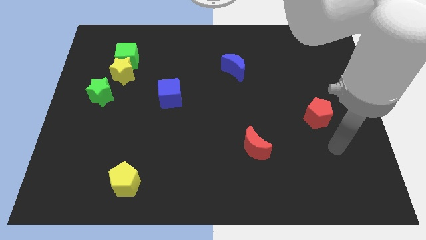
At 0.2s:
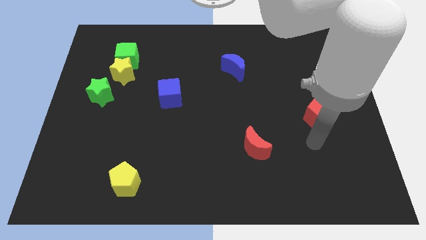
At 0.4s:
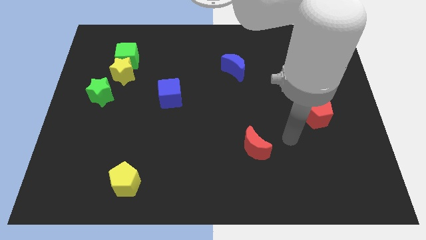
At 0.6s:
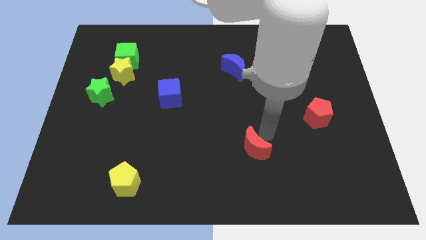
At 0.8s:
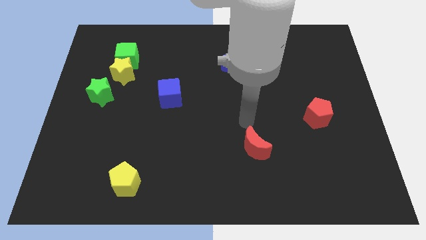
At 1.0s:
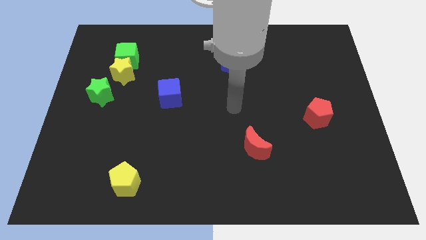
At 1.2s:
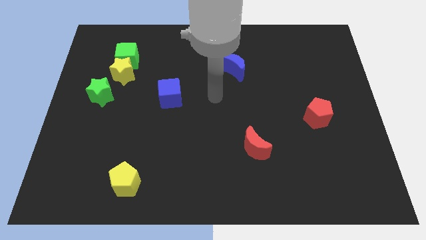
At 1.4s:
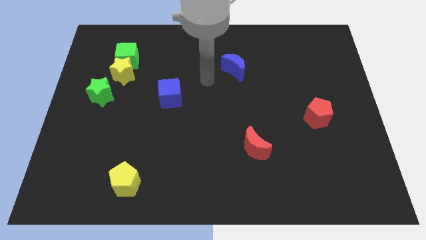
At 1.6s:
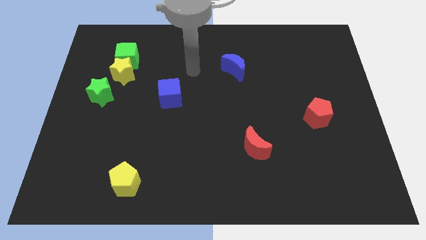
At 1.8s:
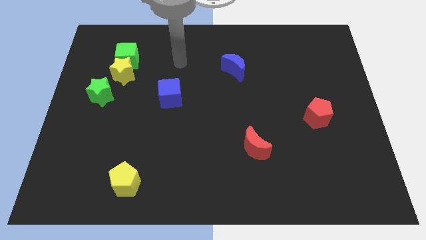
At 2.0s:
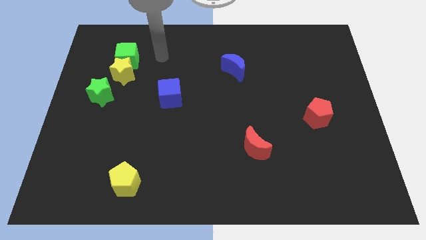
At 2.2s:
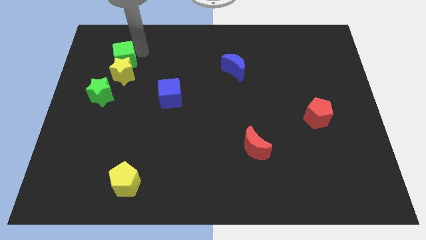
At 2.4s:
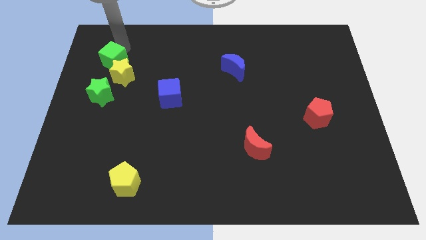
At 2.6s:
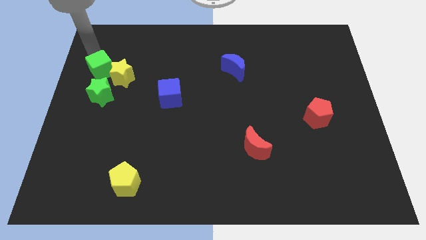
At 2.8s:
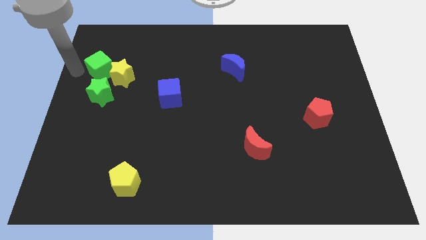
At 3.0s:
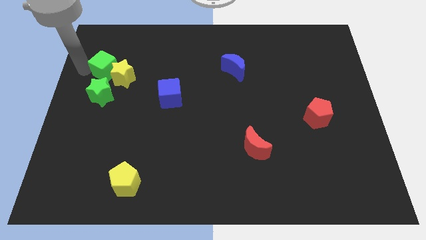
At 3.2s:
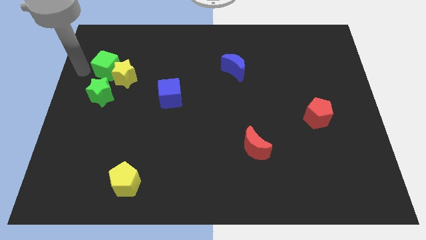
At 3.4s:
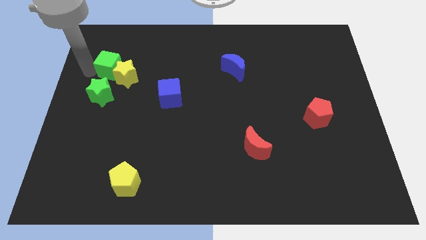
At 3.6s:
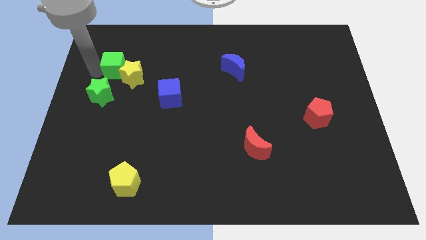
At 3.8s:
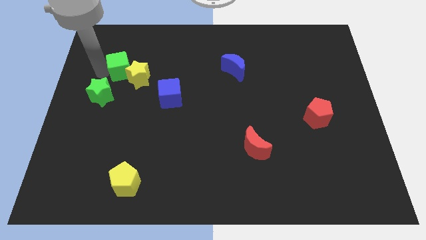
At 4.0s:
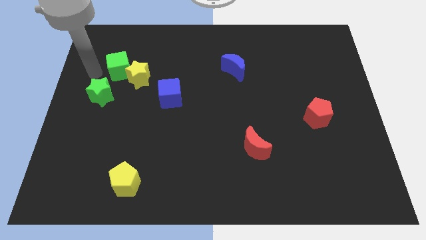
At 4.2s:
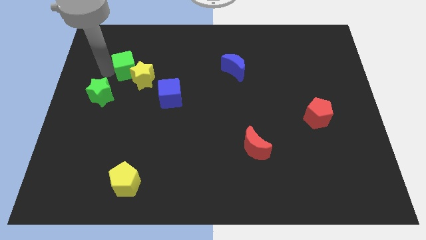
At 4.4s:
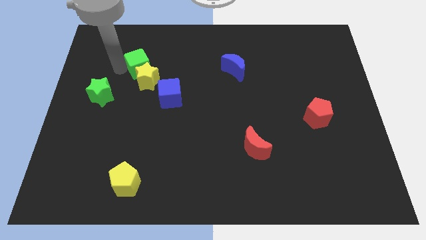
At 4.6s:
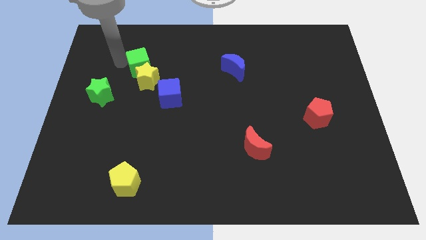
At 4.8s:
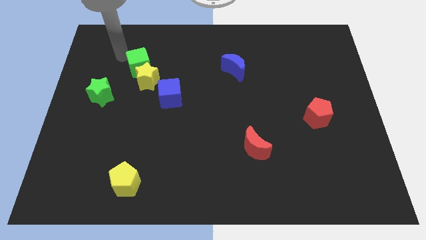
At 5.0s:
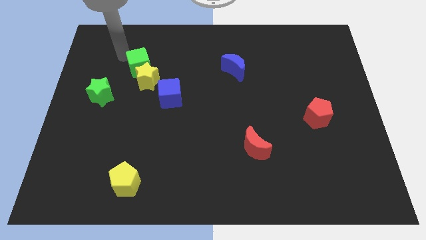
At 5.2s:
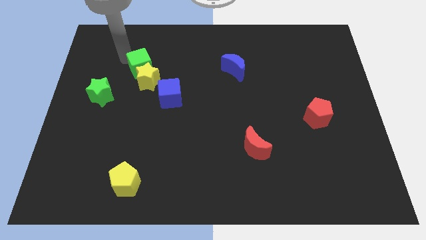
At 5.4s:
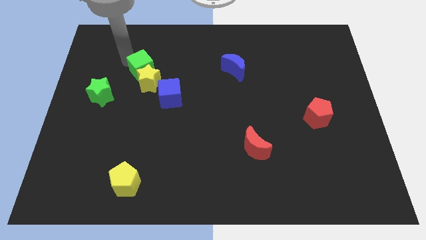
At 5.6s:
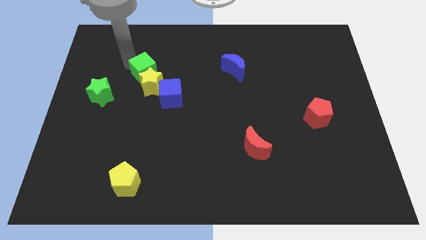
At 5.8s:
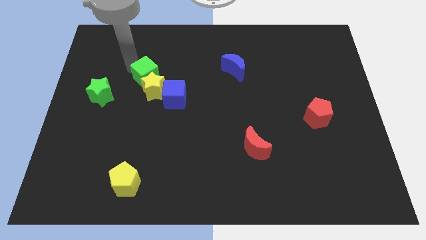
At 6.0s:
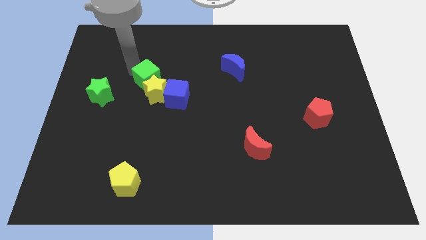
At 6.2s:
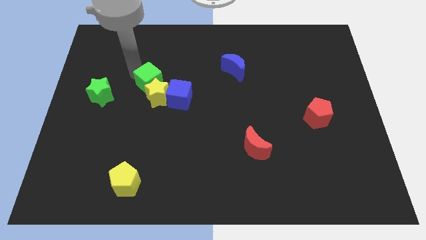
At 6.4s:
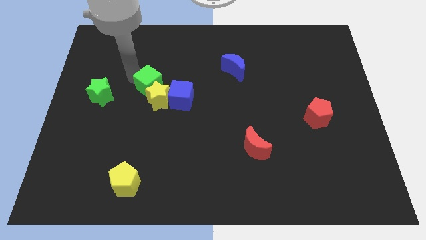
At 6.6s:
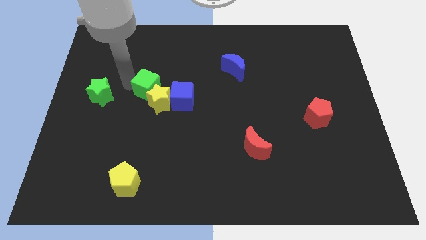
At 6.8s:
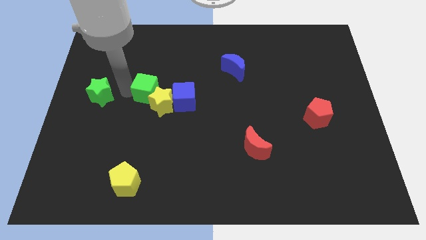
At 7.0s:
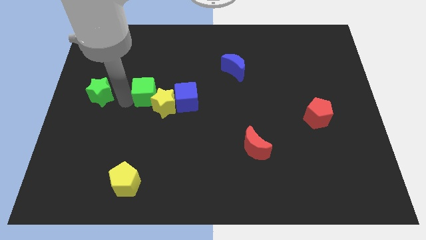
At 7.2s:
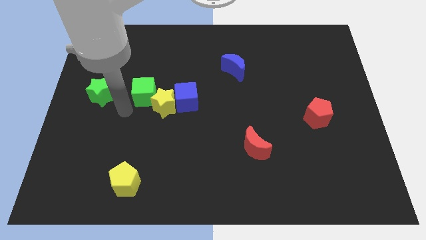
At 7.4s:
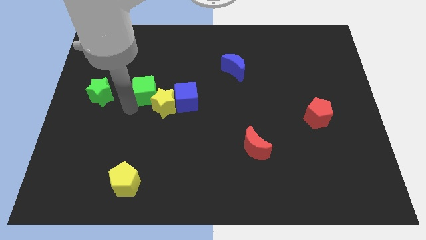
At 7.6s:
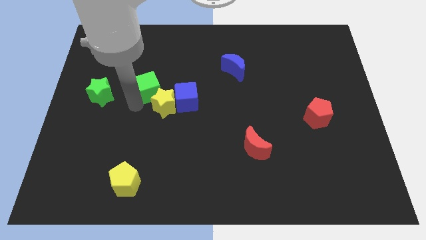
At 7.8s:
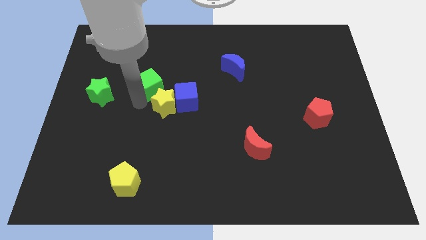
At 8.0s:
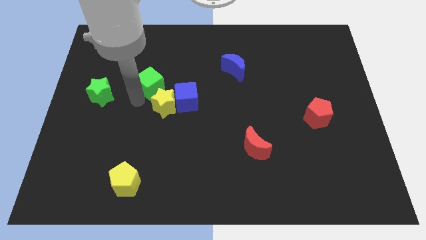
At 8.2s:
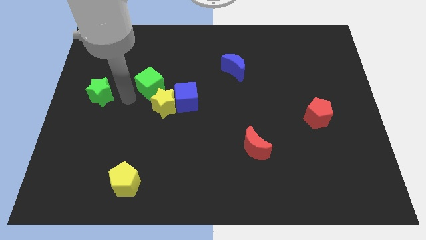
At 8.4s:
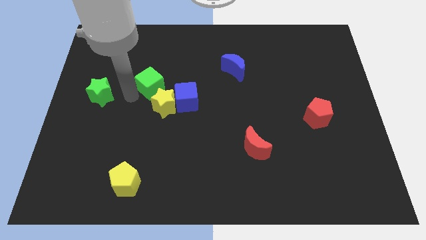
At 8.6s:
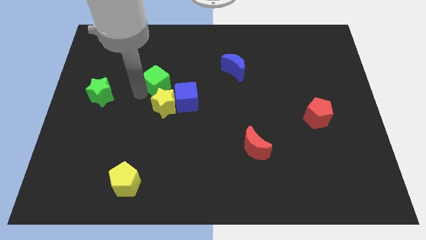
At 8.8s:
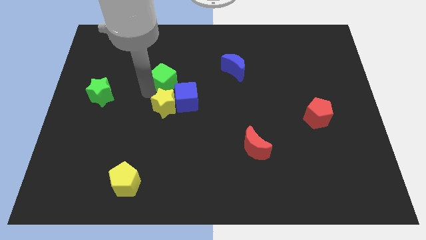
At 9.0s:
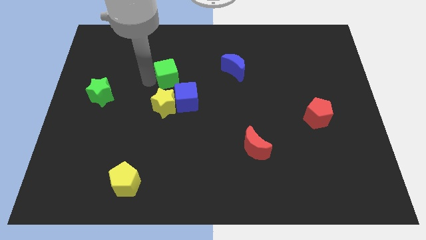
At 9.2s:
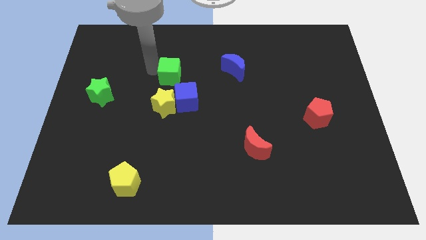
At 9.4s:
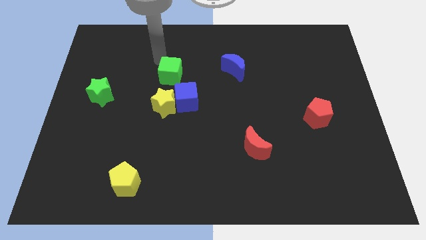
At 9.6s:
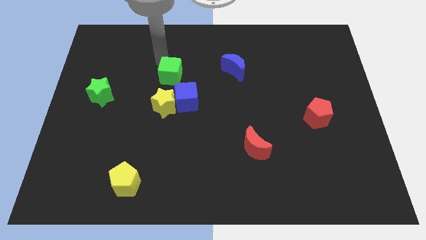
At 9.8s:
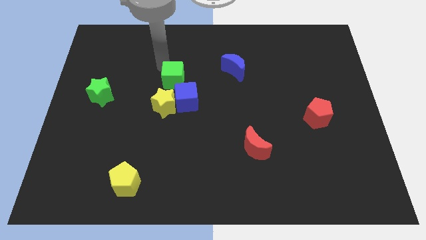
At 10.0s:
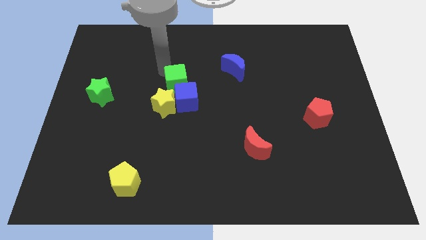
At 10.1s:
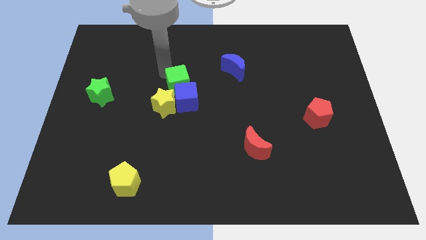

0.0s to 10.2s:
put the green cube close to the blue cube

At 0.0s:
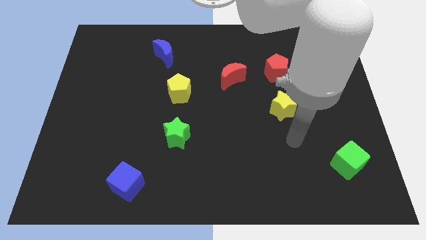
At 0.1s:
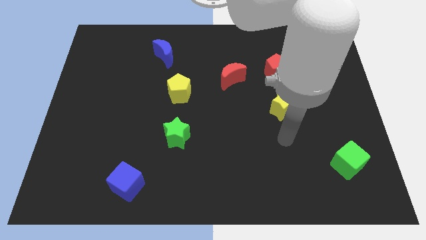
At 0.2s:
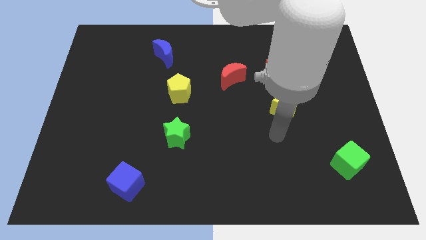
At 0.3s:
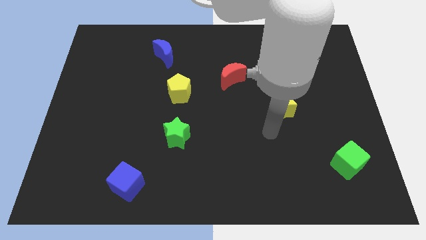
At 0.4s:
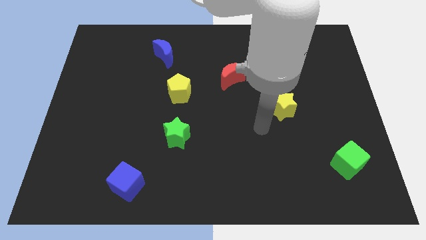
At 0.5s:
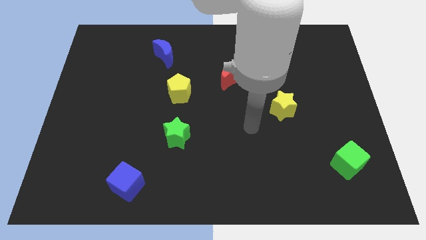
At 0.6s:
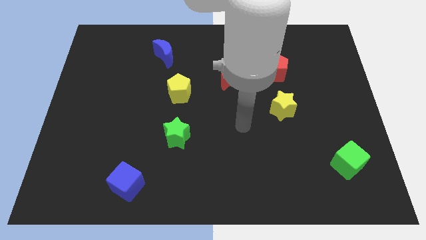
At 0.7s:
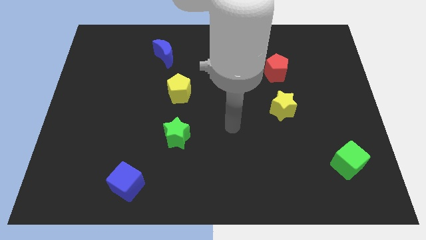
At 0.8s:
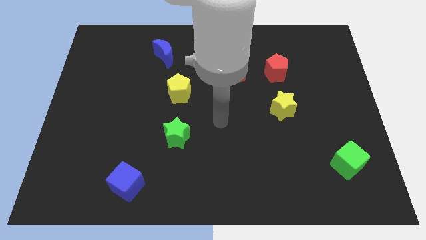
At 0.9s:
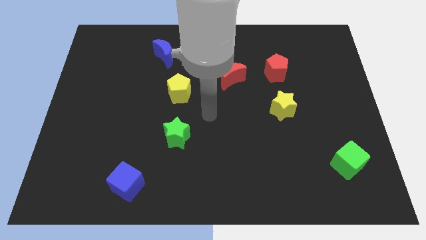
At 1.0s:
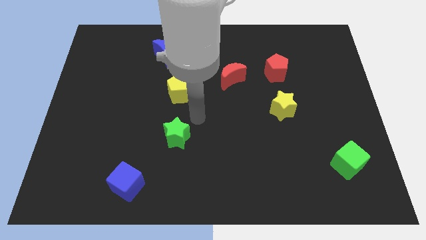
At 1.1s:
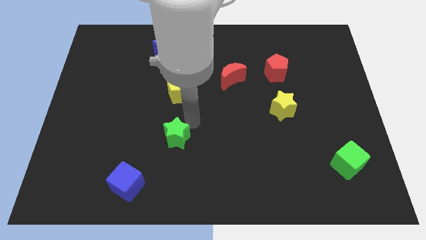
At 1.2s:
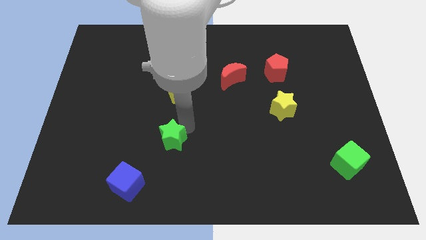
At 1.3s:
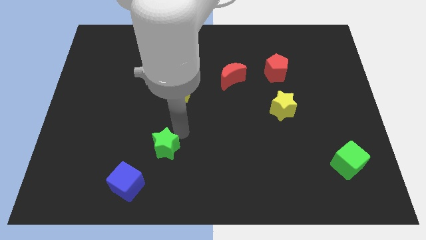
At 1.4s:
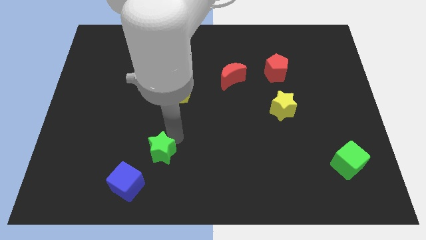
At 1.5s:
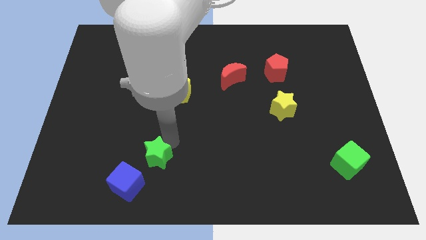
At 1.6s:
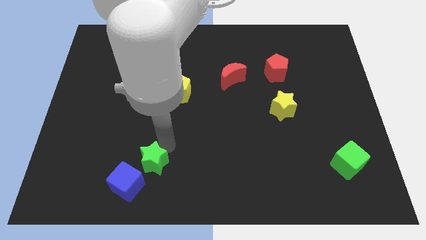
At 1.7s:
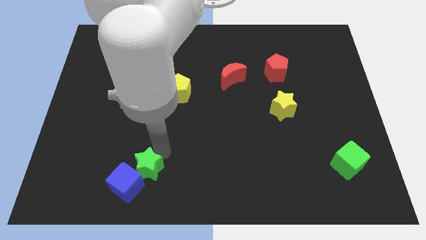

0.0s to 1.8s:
move the green star next to the blue cube

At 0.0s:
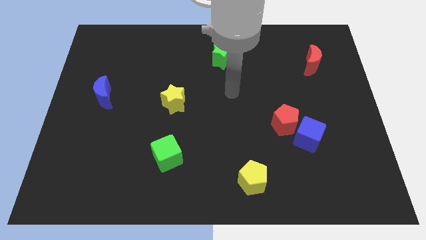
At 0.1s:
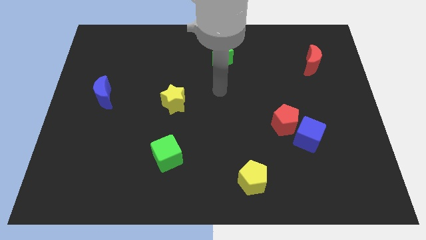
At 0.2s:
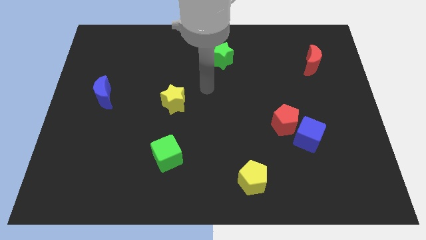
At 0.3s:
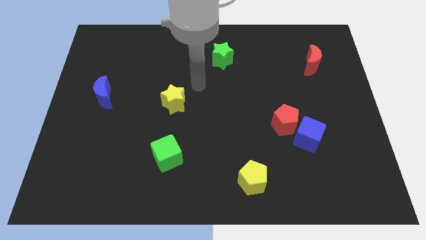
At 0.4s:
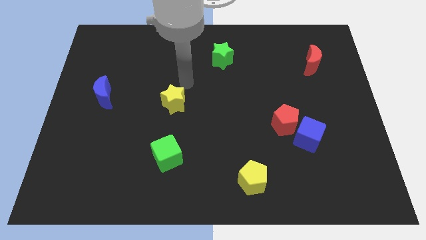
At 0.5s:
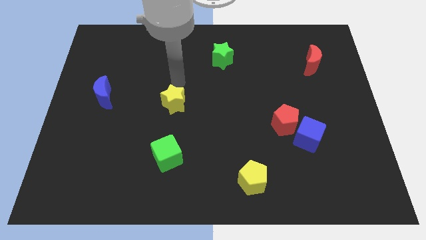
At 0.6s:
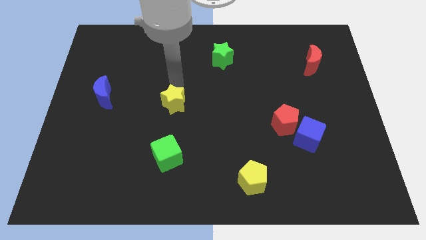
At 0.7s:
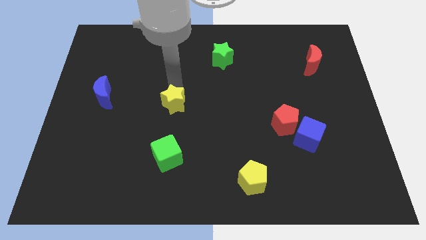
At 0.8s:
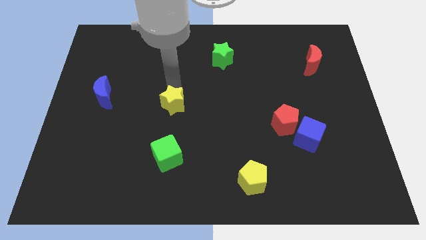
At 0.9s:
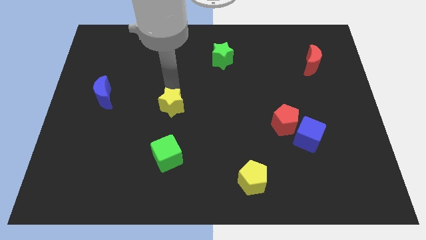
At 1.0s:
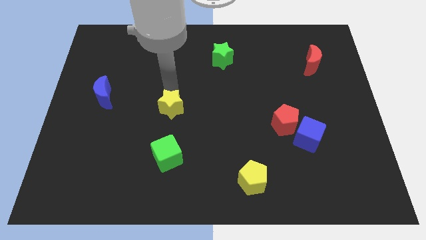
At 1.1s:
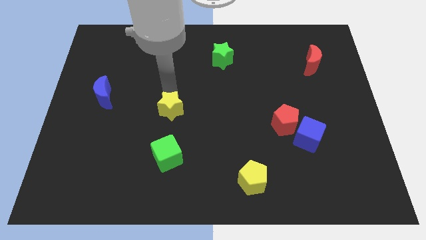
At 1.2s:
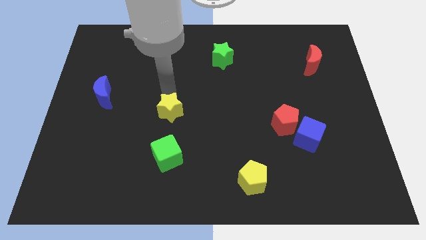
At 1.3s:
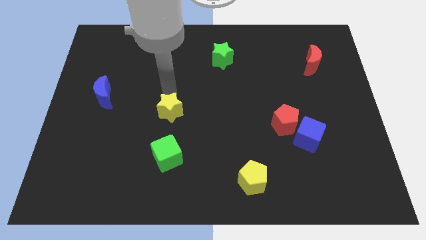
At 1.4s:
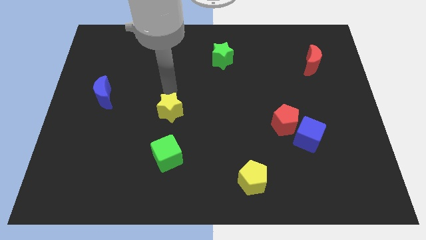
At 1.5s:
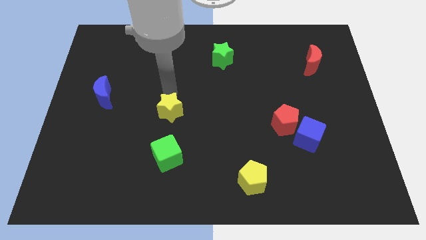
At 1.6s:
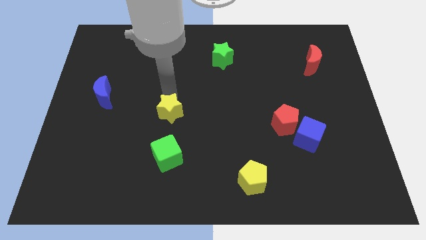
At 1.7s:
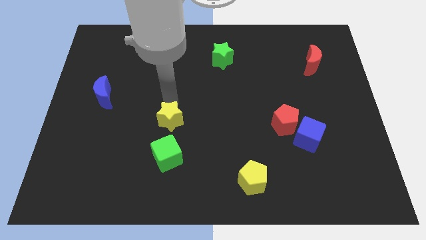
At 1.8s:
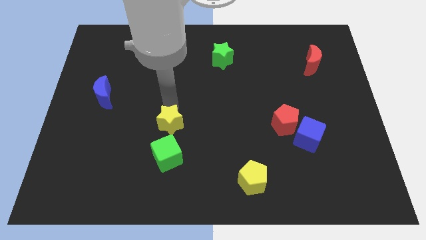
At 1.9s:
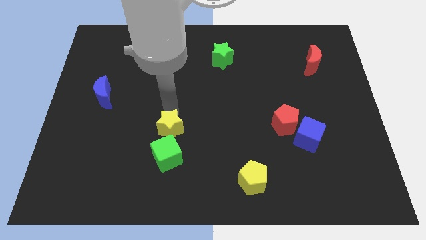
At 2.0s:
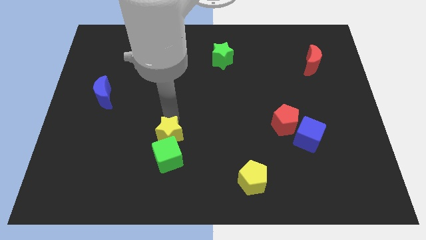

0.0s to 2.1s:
slide the yellow star towards the green cube
